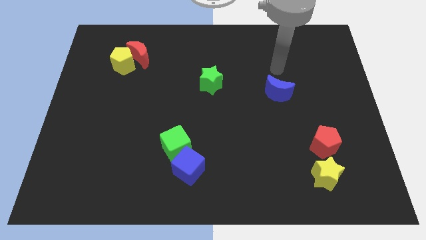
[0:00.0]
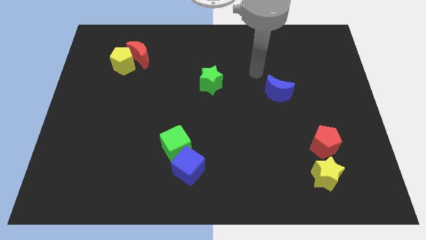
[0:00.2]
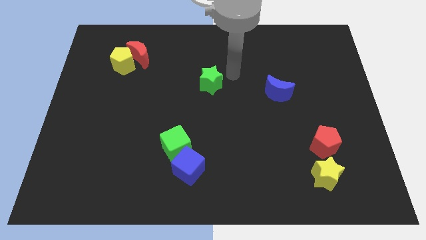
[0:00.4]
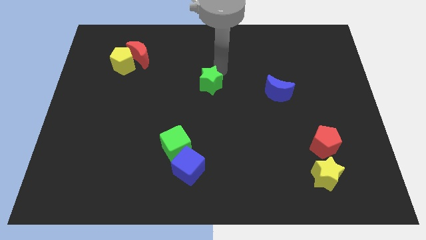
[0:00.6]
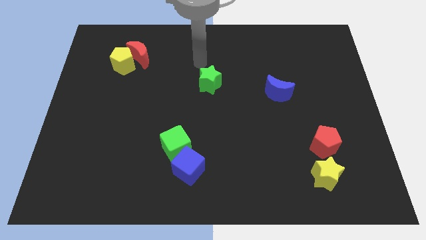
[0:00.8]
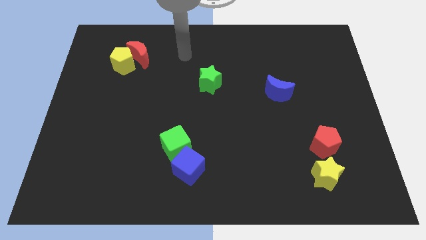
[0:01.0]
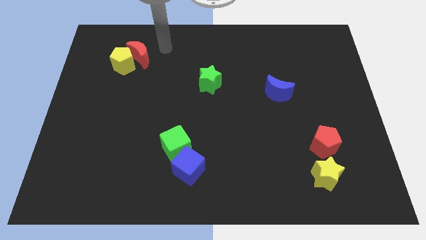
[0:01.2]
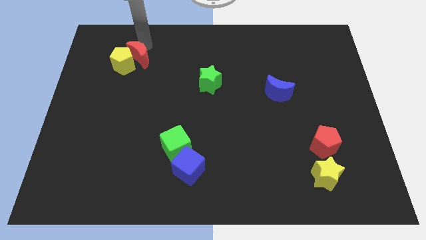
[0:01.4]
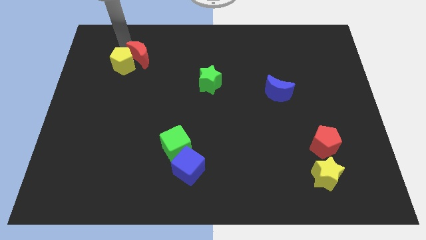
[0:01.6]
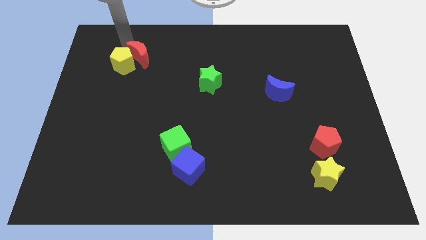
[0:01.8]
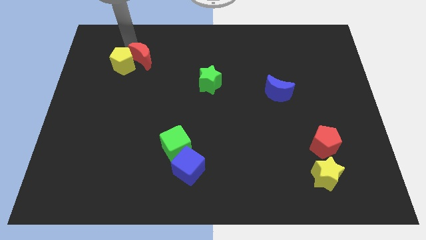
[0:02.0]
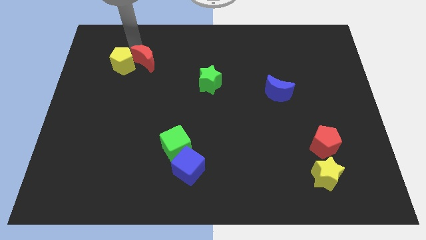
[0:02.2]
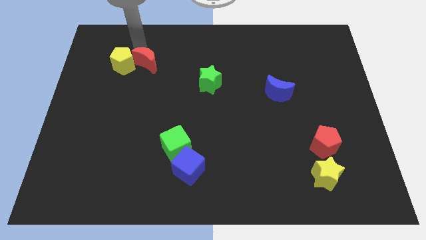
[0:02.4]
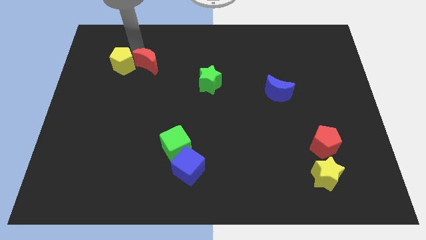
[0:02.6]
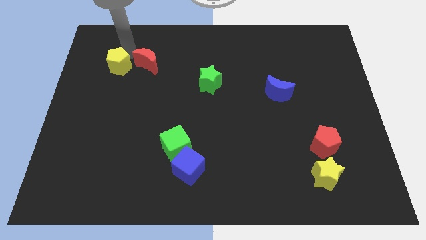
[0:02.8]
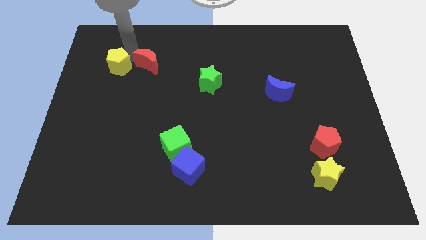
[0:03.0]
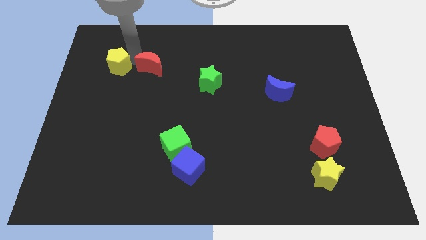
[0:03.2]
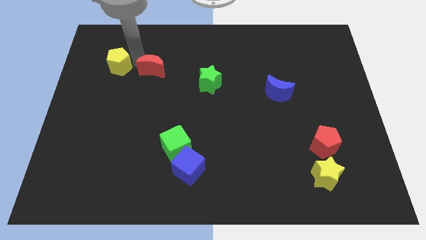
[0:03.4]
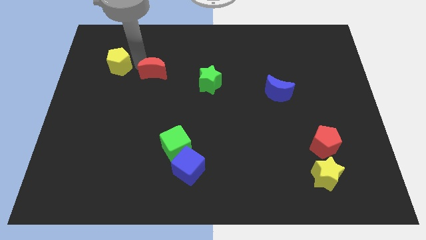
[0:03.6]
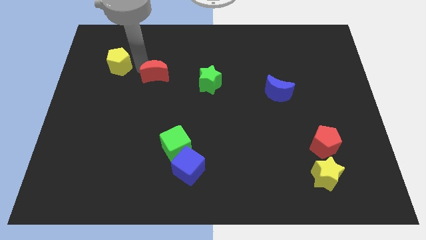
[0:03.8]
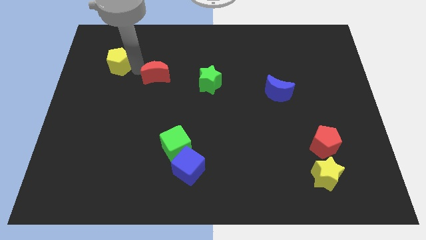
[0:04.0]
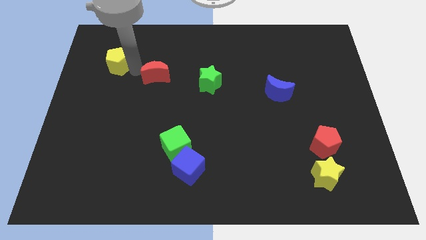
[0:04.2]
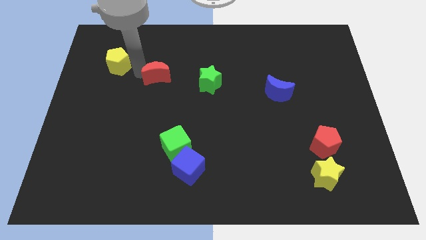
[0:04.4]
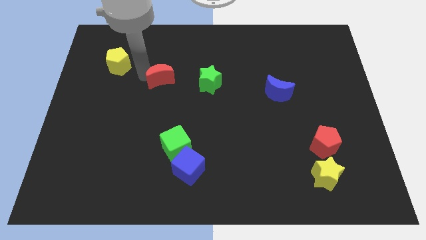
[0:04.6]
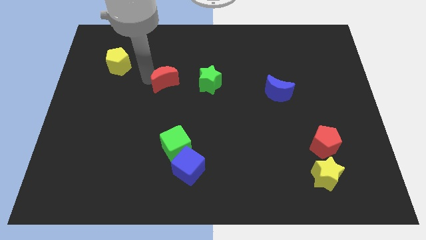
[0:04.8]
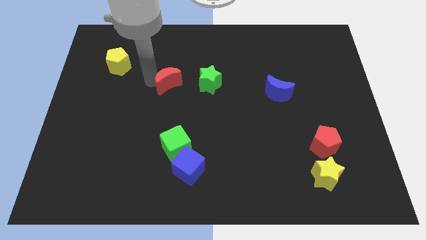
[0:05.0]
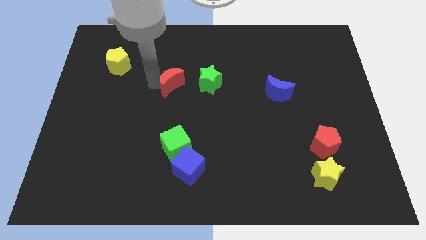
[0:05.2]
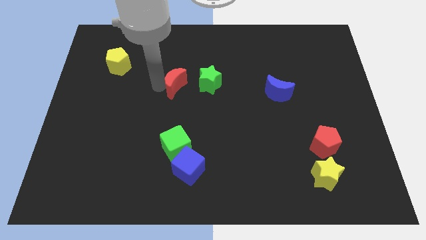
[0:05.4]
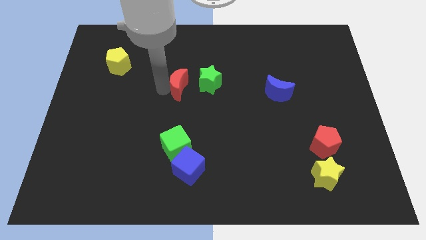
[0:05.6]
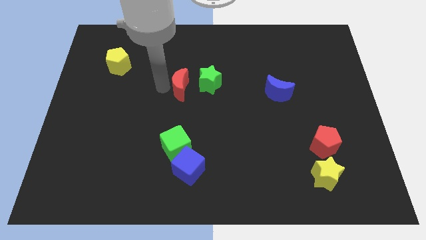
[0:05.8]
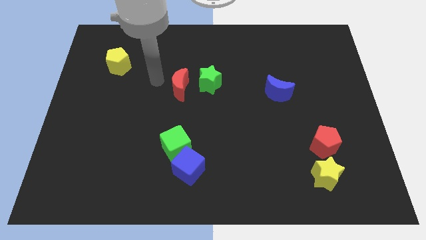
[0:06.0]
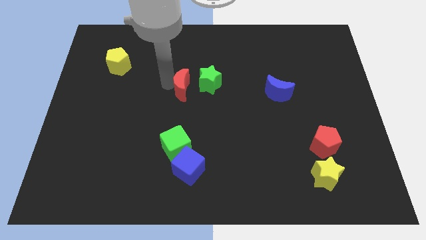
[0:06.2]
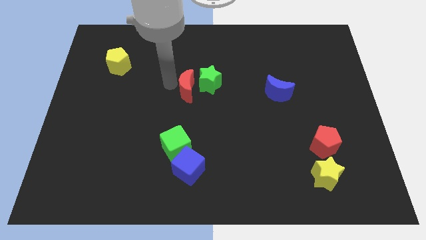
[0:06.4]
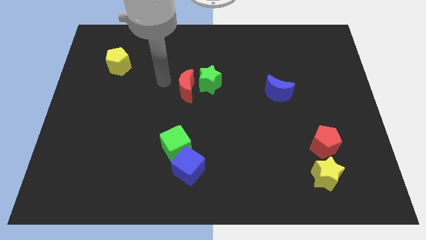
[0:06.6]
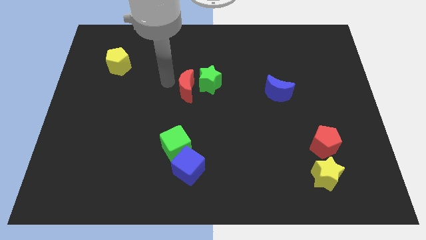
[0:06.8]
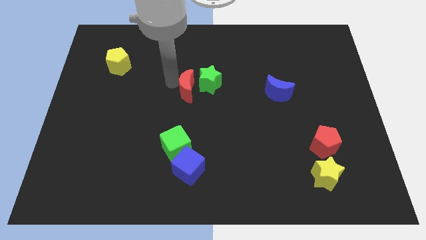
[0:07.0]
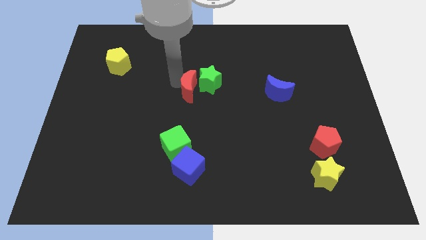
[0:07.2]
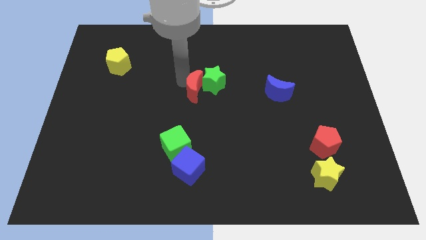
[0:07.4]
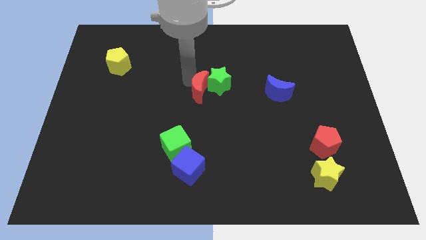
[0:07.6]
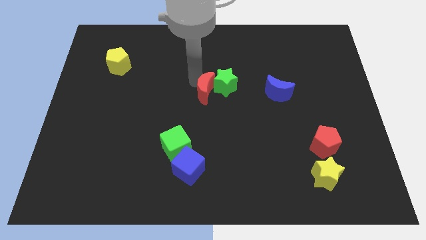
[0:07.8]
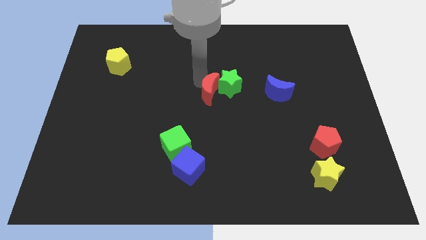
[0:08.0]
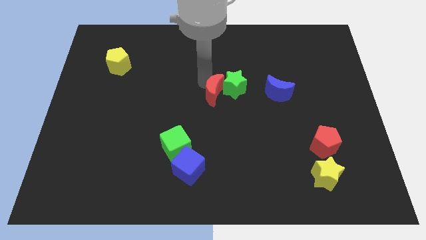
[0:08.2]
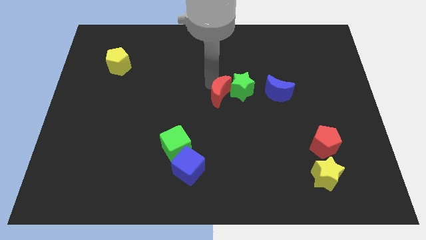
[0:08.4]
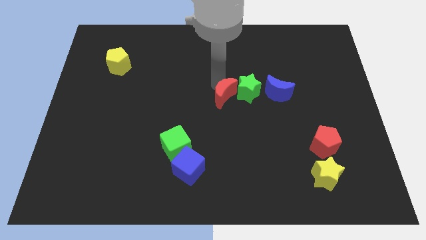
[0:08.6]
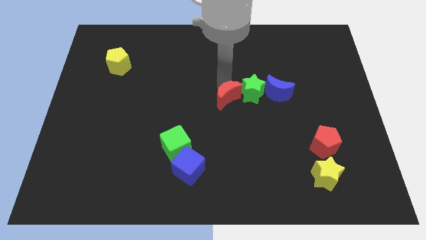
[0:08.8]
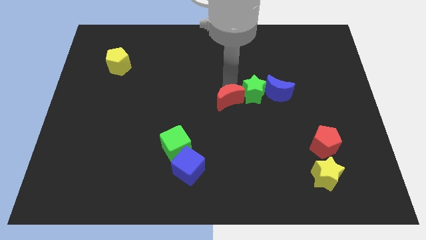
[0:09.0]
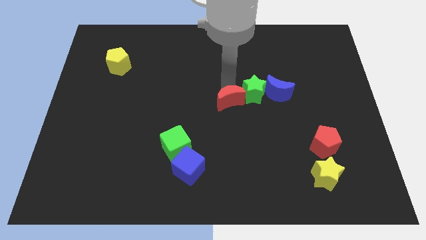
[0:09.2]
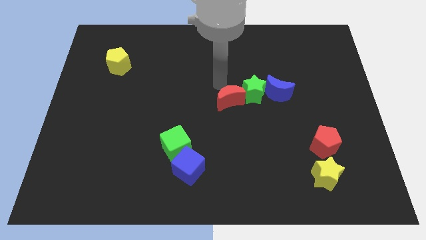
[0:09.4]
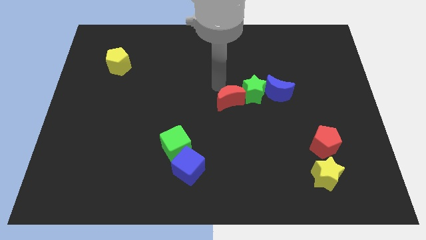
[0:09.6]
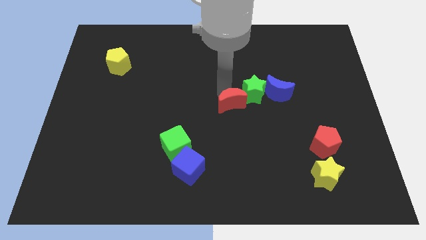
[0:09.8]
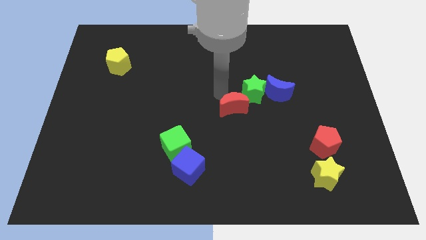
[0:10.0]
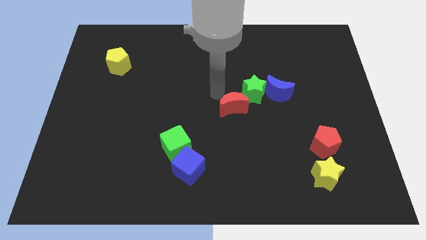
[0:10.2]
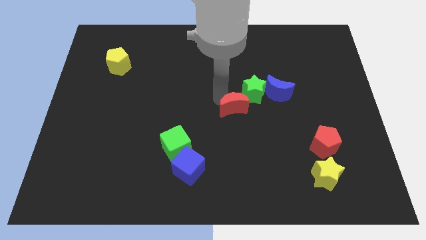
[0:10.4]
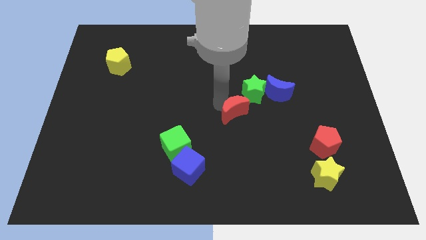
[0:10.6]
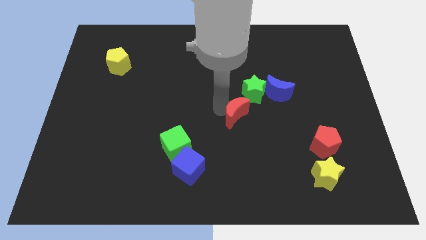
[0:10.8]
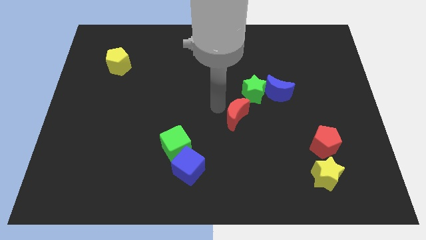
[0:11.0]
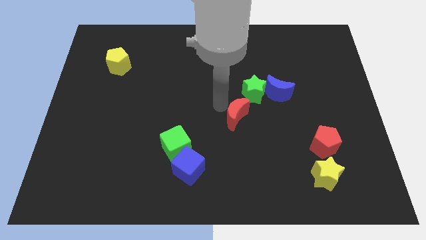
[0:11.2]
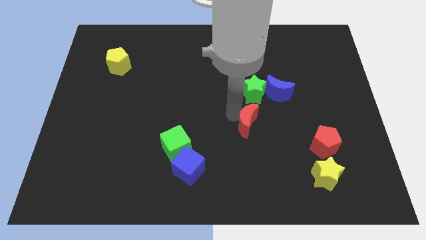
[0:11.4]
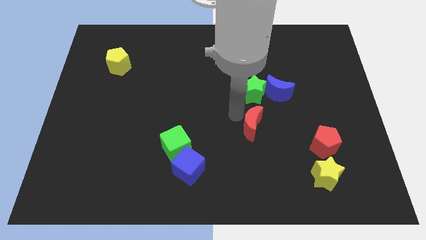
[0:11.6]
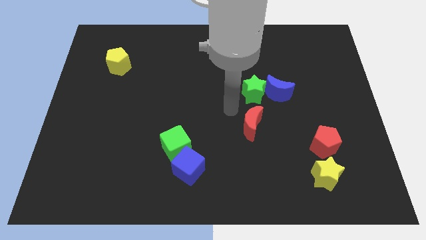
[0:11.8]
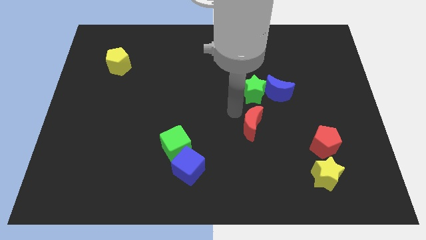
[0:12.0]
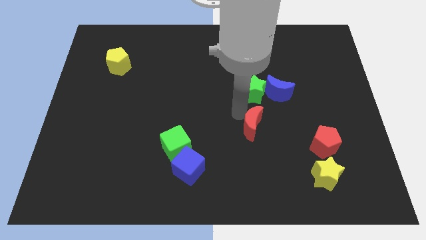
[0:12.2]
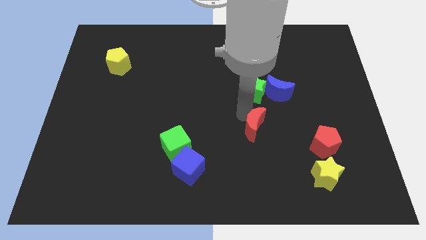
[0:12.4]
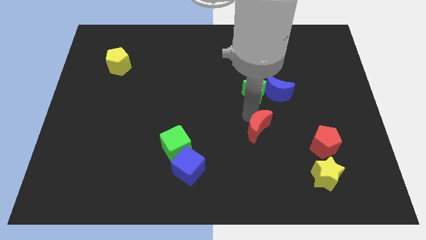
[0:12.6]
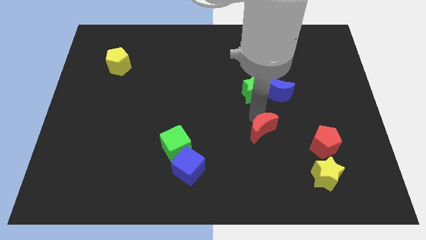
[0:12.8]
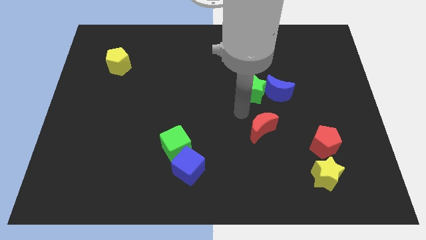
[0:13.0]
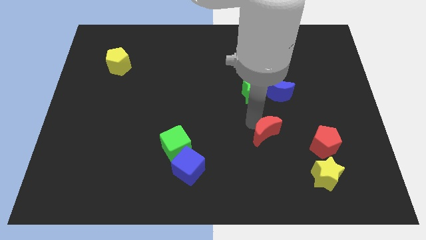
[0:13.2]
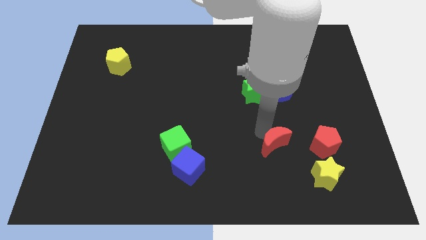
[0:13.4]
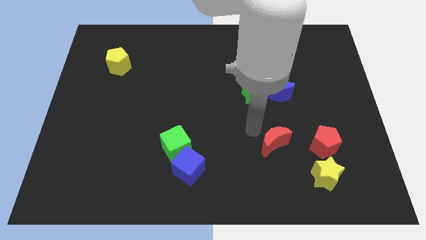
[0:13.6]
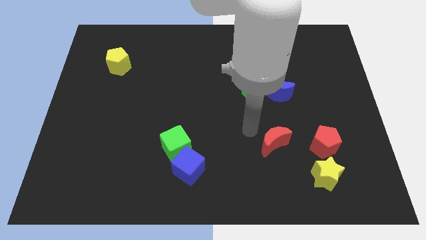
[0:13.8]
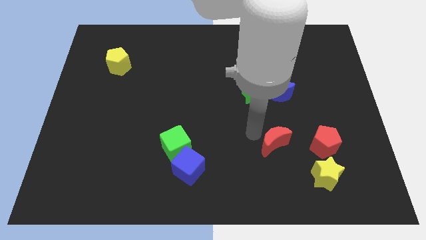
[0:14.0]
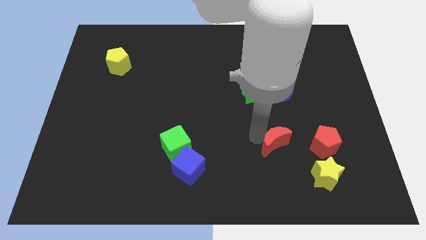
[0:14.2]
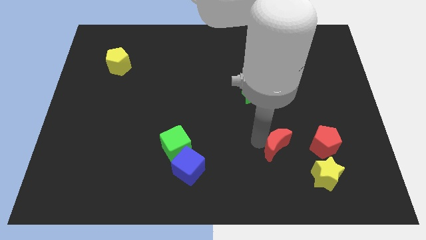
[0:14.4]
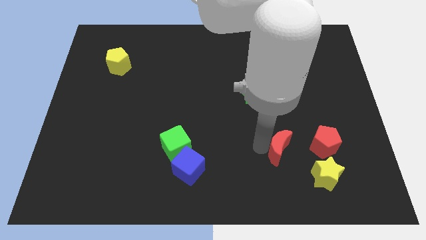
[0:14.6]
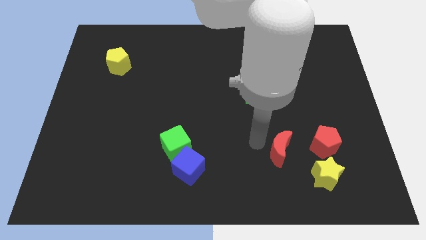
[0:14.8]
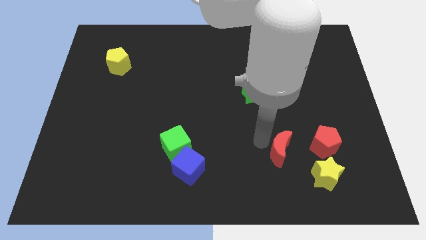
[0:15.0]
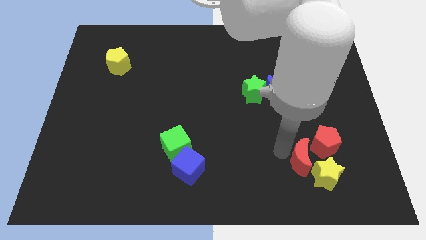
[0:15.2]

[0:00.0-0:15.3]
move the red moon towards the yellow star
